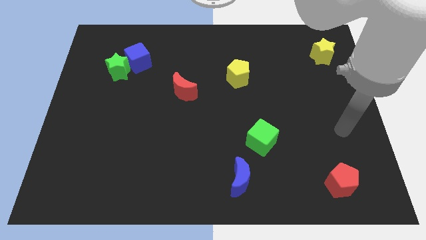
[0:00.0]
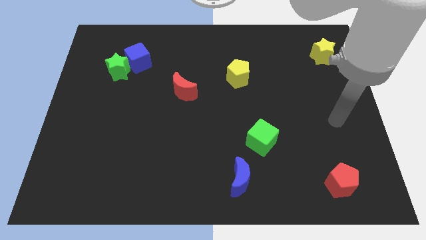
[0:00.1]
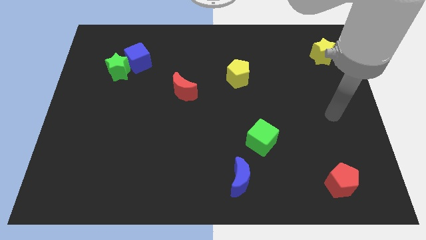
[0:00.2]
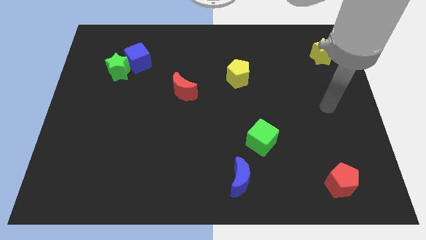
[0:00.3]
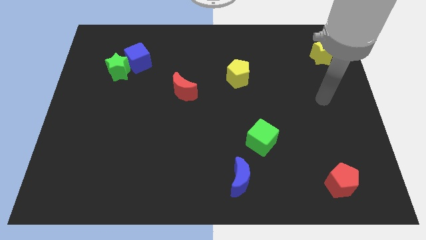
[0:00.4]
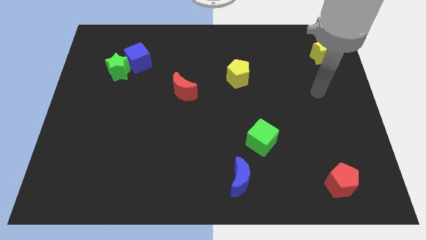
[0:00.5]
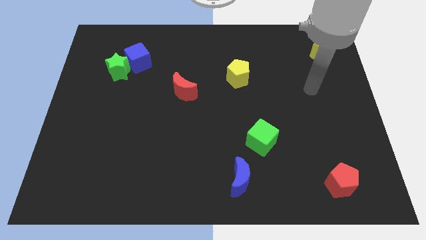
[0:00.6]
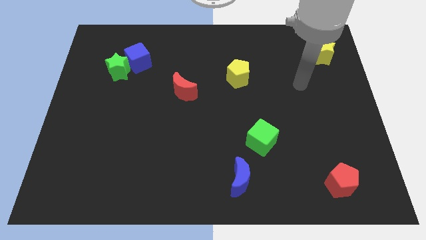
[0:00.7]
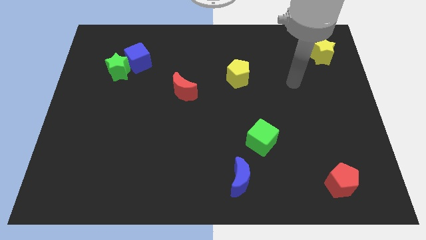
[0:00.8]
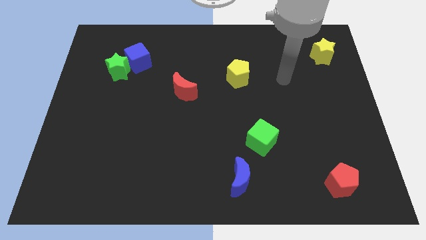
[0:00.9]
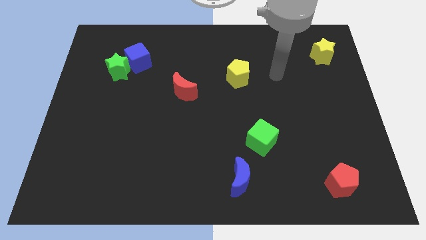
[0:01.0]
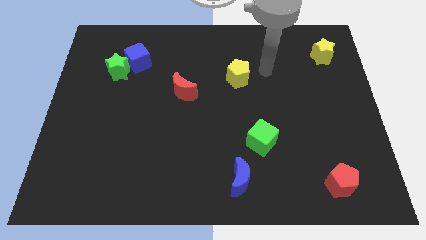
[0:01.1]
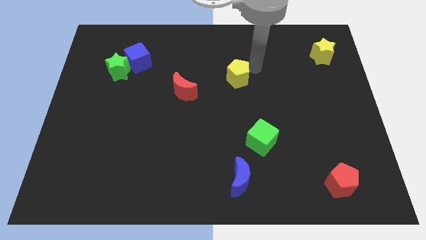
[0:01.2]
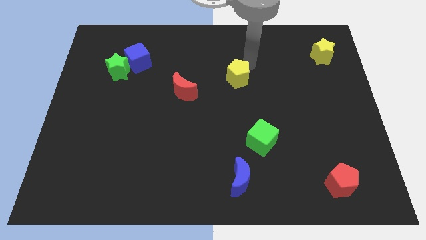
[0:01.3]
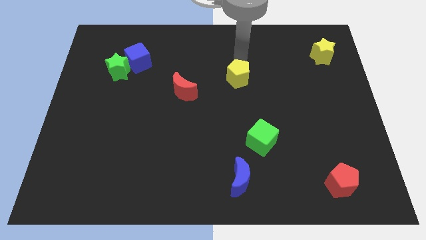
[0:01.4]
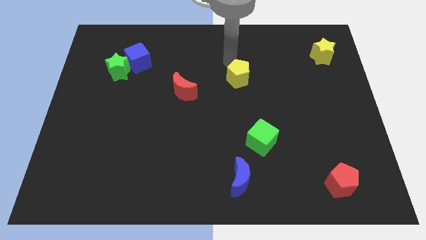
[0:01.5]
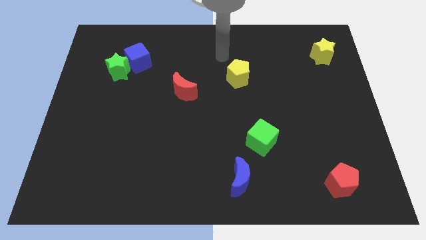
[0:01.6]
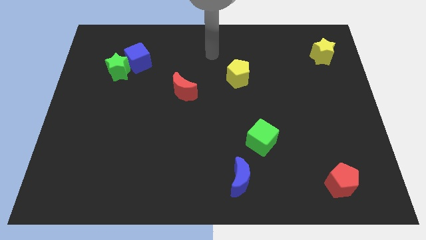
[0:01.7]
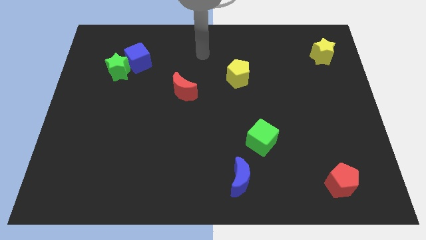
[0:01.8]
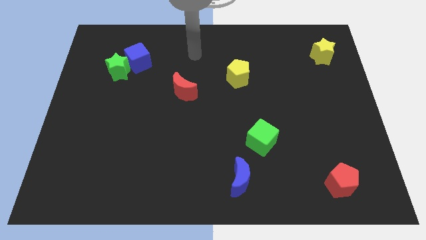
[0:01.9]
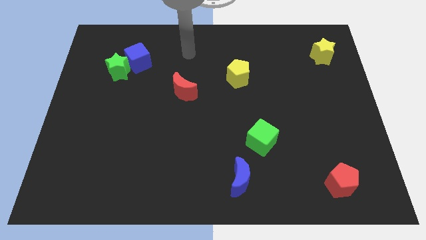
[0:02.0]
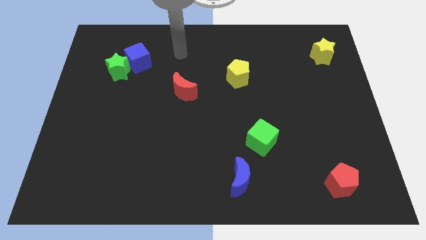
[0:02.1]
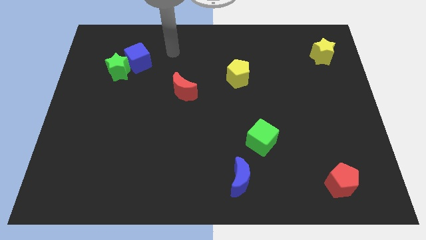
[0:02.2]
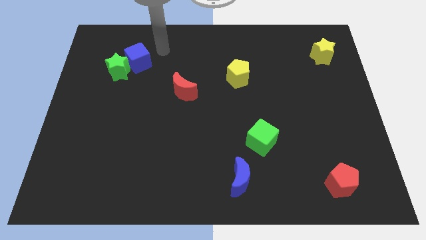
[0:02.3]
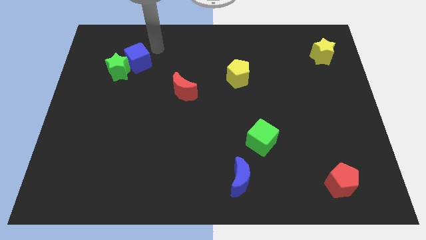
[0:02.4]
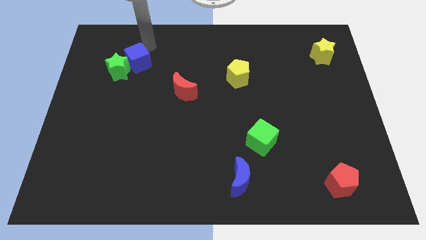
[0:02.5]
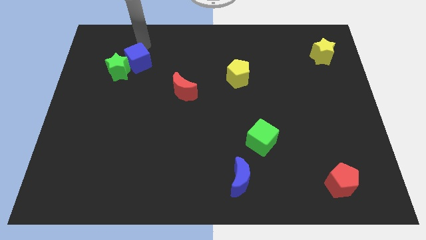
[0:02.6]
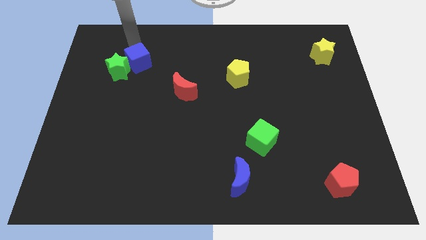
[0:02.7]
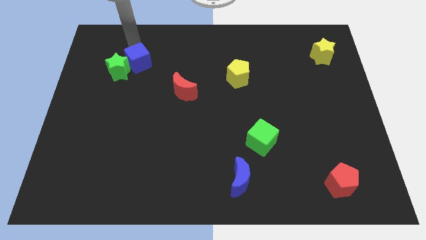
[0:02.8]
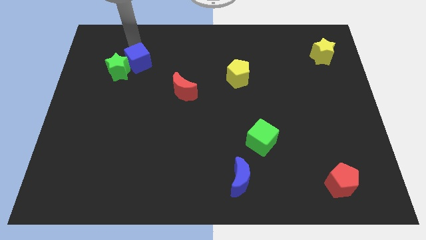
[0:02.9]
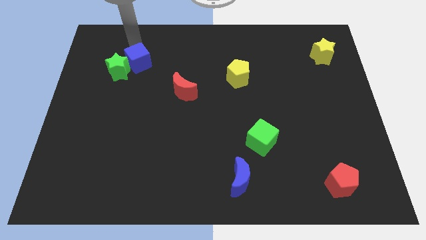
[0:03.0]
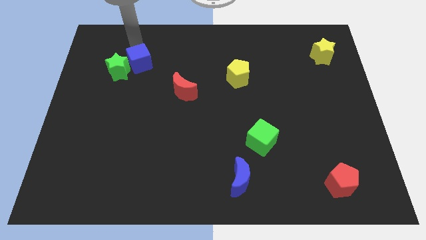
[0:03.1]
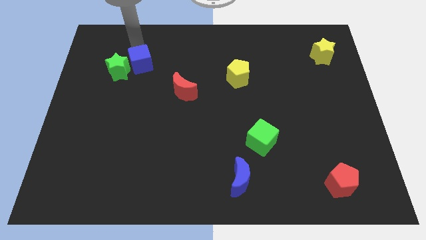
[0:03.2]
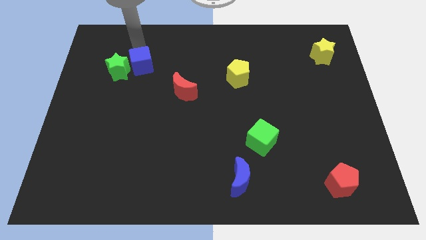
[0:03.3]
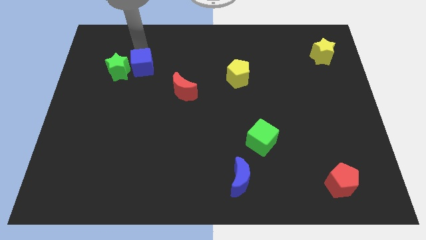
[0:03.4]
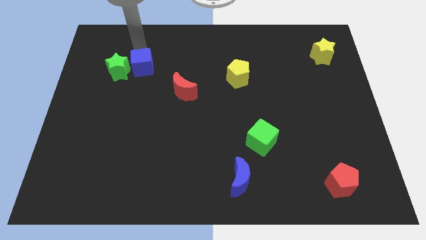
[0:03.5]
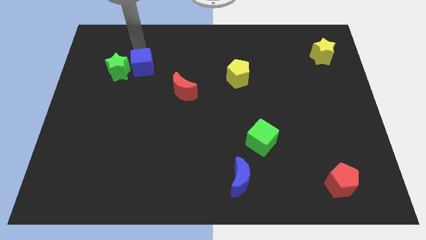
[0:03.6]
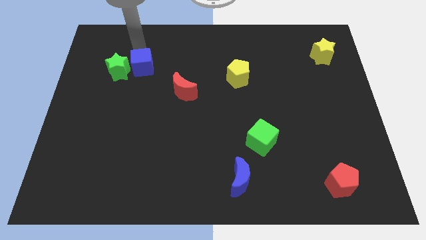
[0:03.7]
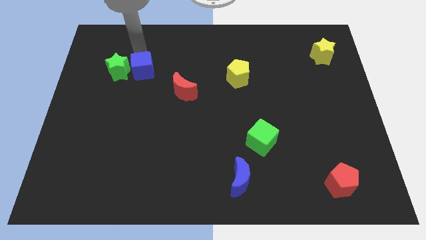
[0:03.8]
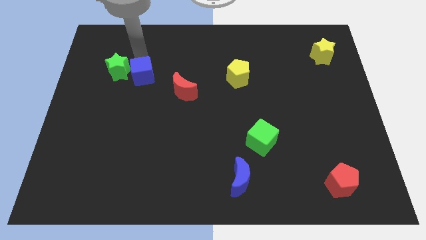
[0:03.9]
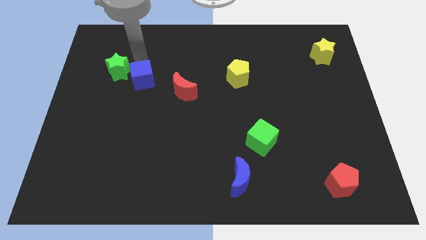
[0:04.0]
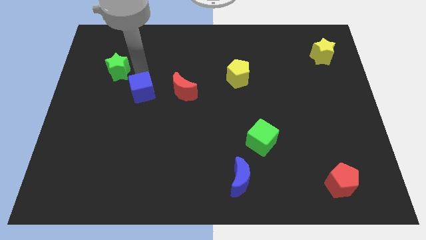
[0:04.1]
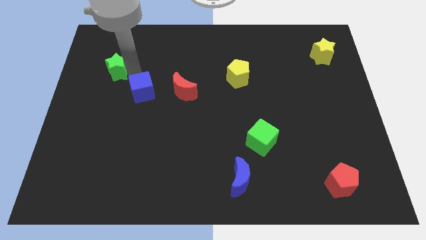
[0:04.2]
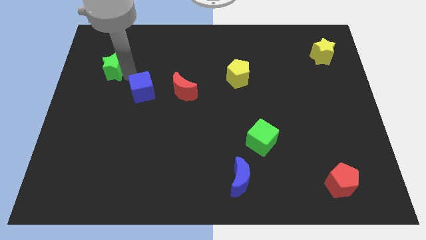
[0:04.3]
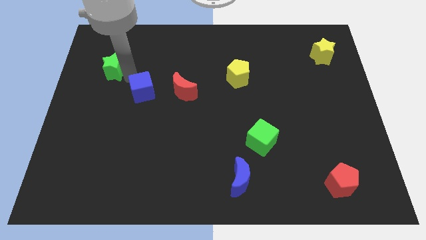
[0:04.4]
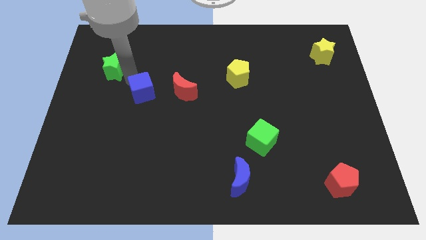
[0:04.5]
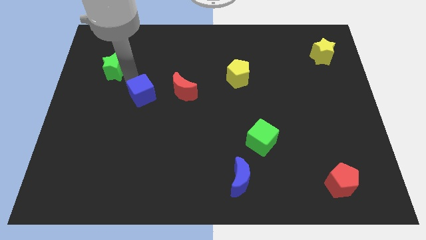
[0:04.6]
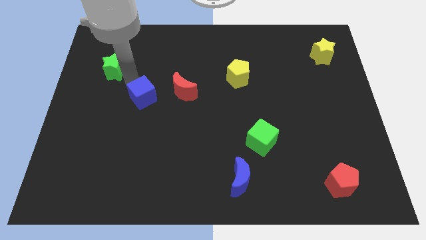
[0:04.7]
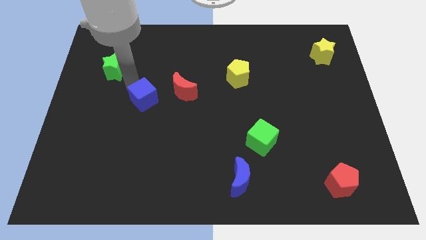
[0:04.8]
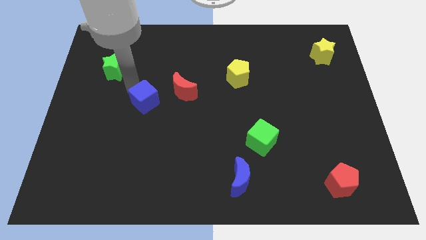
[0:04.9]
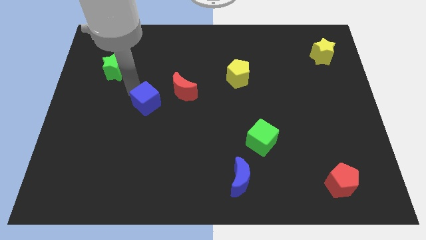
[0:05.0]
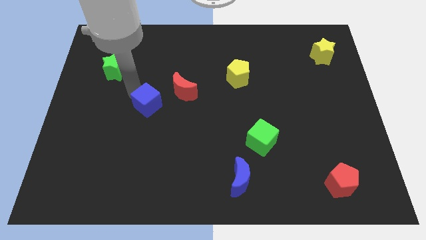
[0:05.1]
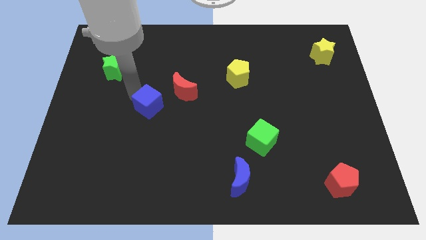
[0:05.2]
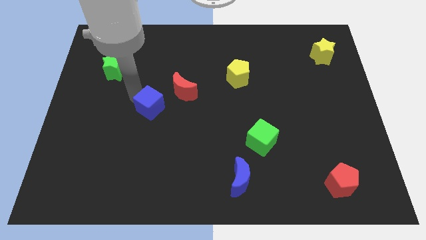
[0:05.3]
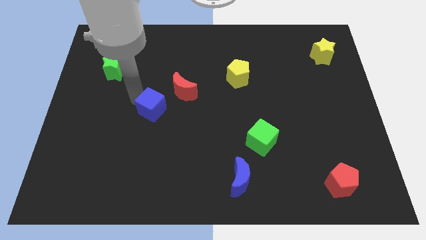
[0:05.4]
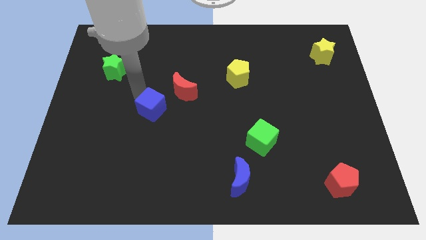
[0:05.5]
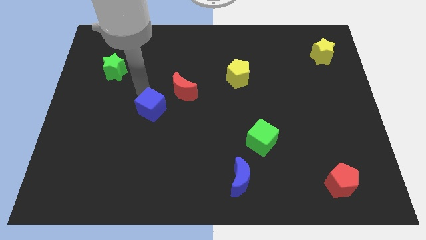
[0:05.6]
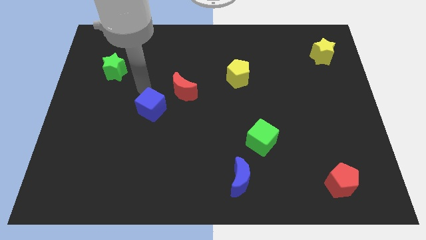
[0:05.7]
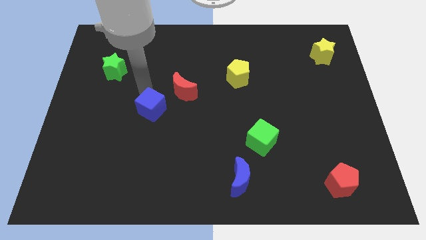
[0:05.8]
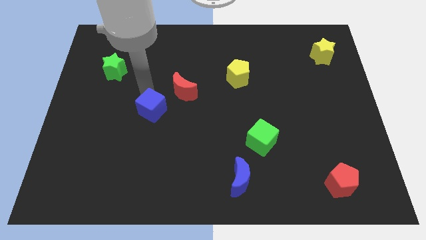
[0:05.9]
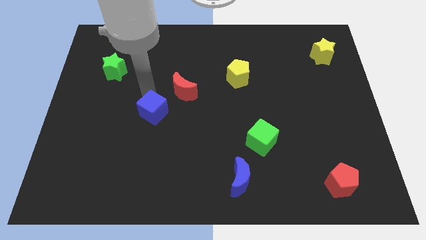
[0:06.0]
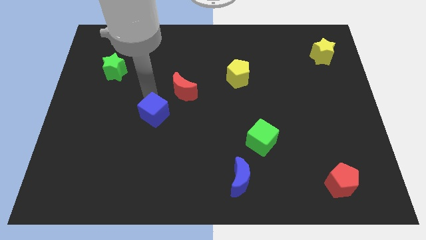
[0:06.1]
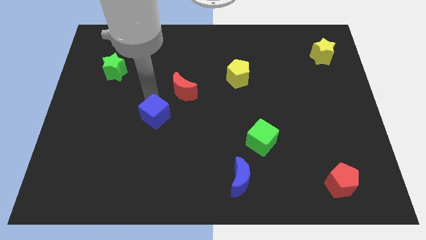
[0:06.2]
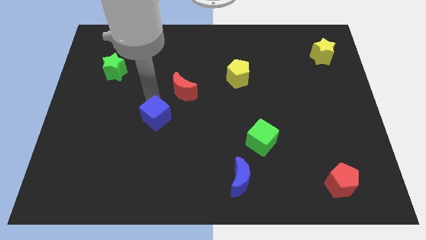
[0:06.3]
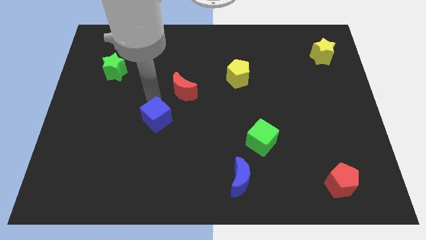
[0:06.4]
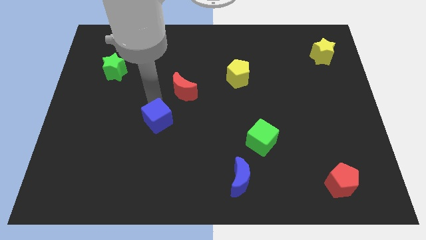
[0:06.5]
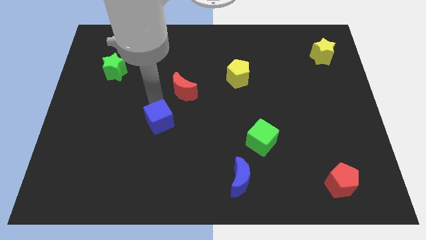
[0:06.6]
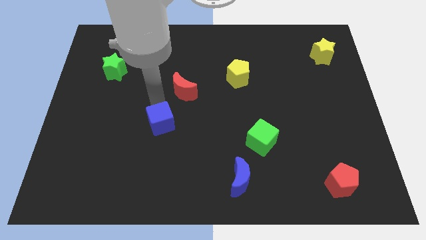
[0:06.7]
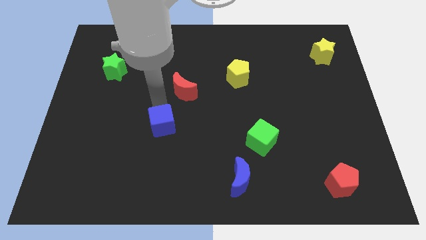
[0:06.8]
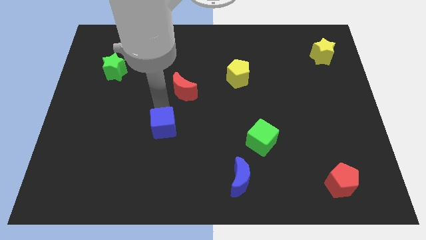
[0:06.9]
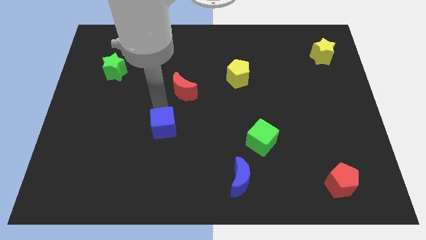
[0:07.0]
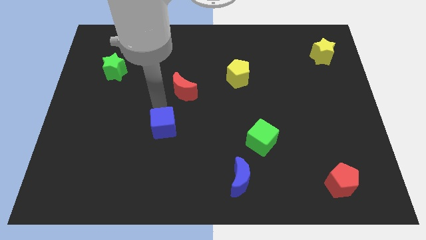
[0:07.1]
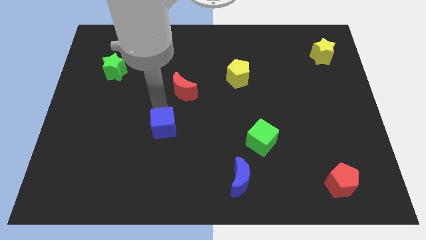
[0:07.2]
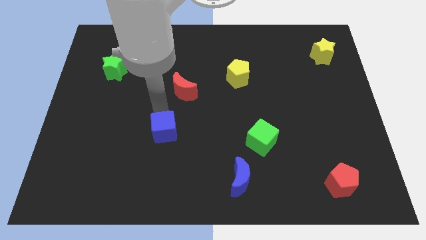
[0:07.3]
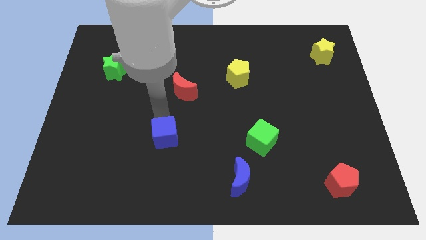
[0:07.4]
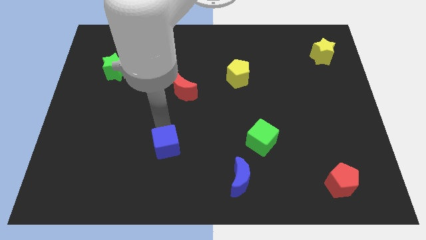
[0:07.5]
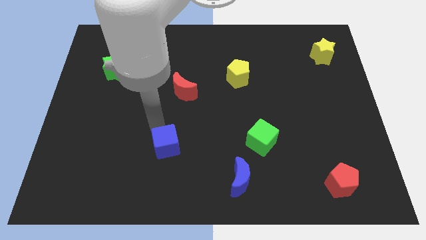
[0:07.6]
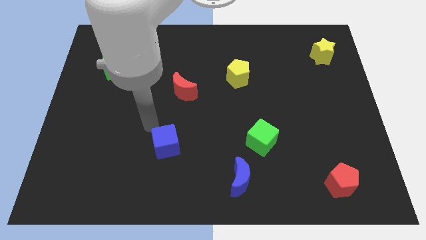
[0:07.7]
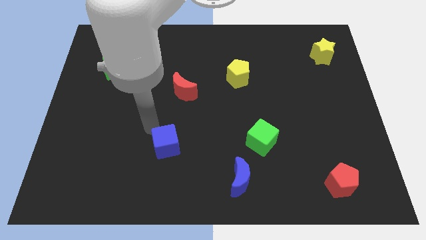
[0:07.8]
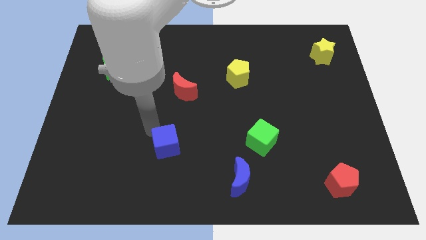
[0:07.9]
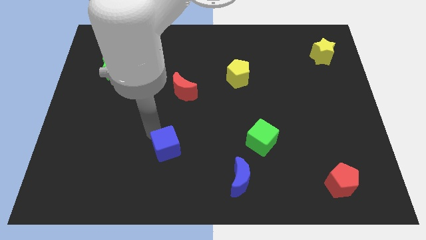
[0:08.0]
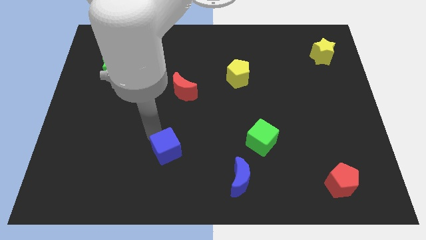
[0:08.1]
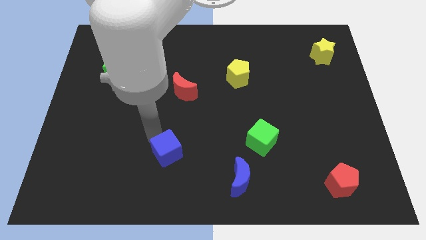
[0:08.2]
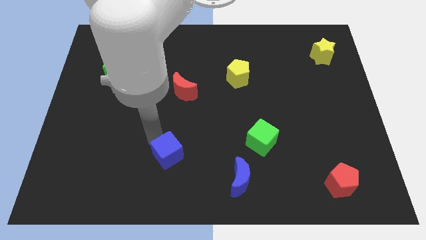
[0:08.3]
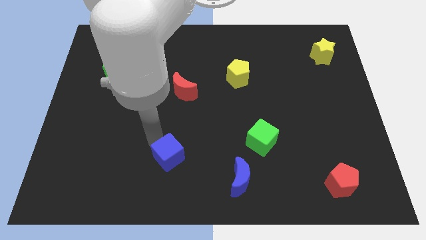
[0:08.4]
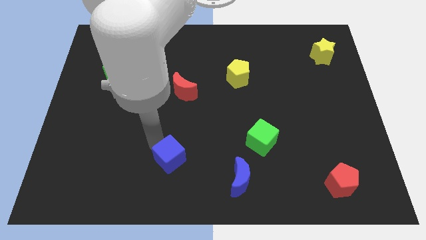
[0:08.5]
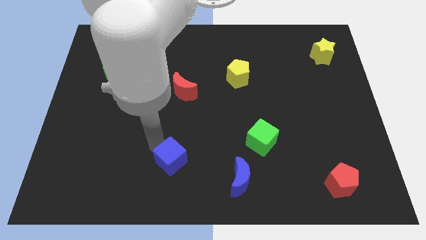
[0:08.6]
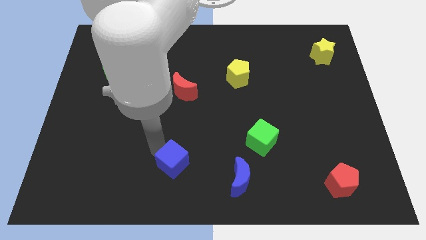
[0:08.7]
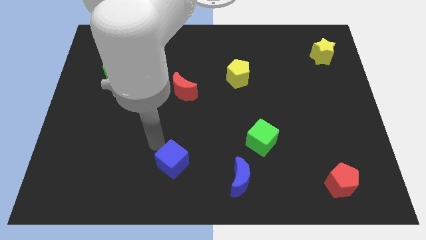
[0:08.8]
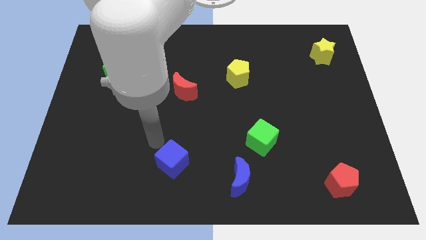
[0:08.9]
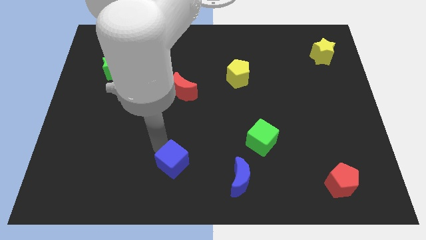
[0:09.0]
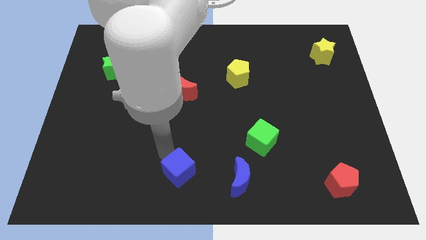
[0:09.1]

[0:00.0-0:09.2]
put the blue cube to the bottom side
